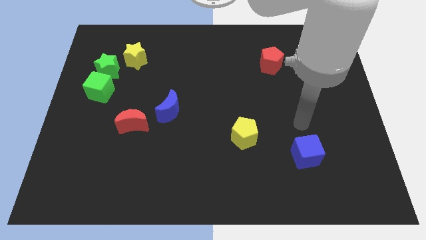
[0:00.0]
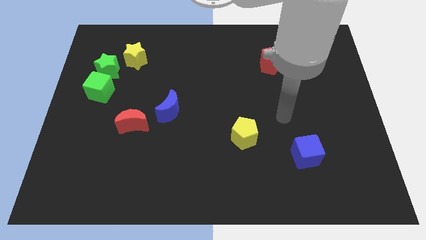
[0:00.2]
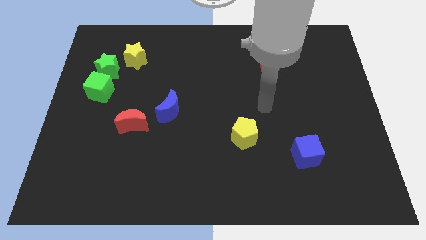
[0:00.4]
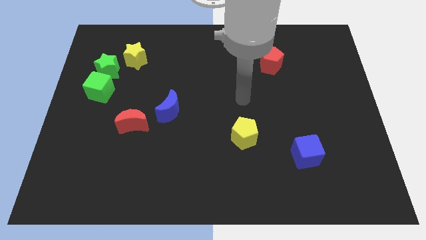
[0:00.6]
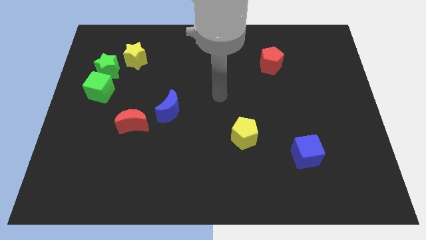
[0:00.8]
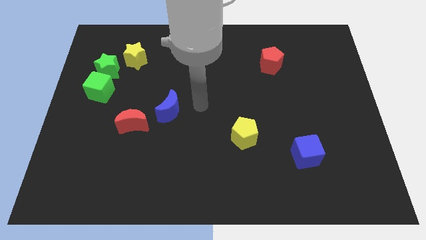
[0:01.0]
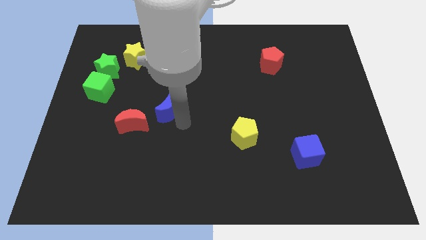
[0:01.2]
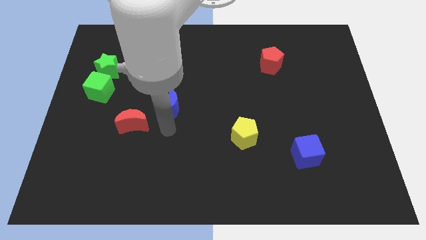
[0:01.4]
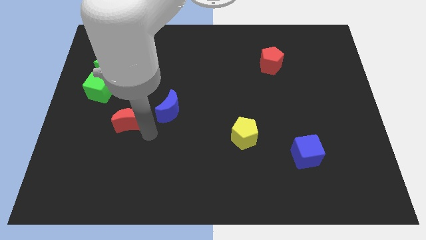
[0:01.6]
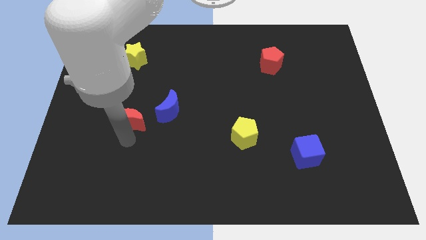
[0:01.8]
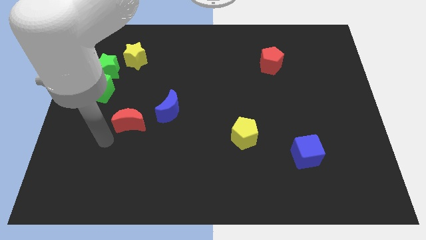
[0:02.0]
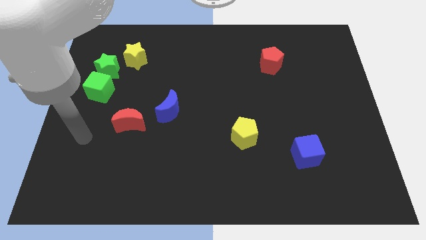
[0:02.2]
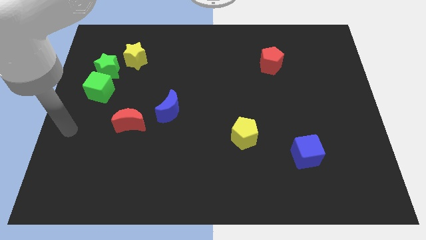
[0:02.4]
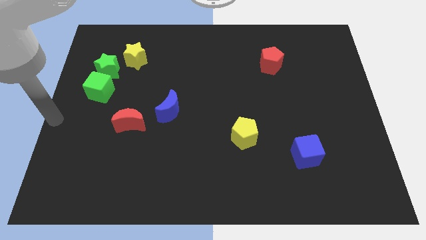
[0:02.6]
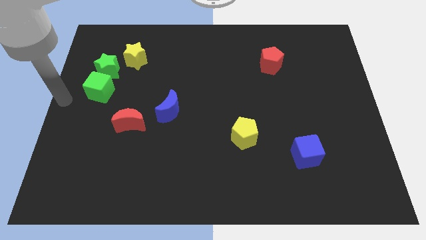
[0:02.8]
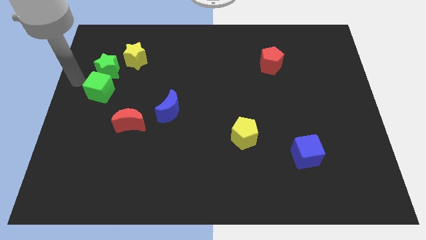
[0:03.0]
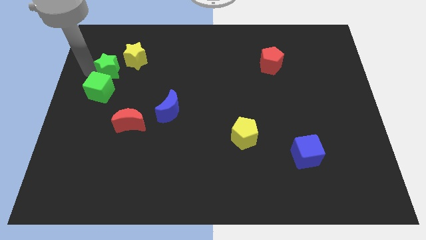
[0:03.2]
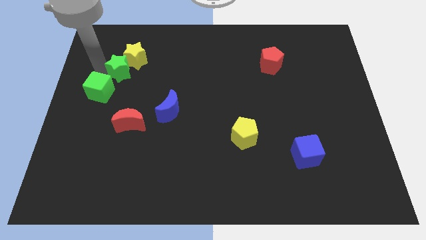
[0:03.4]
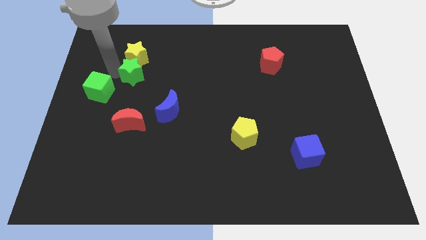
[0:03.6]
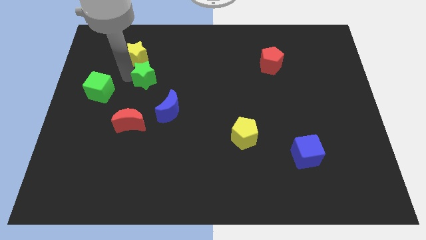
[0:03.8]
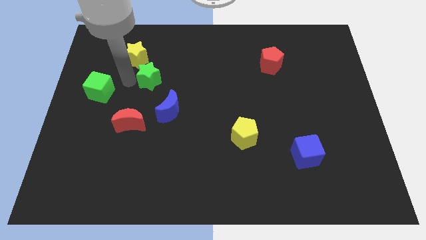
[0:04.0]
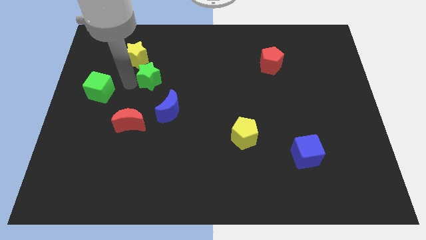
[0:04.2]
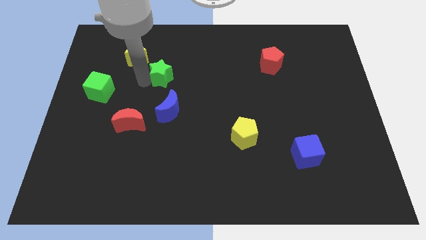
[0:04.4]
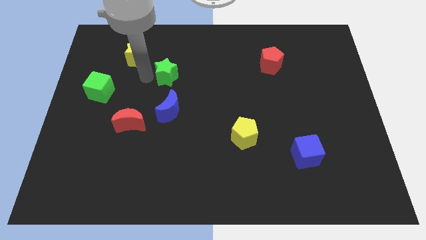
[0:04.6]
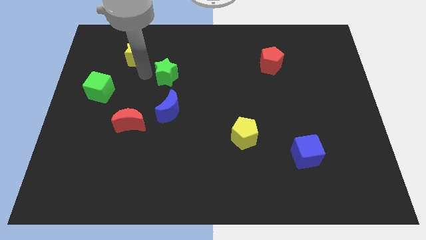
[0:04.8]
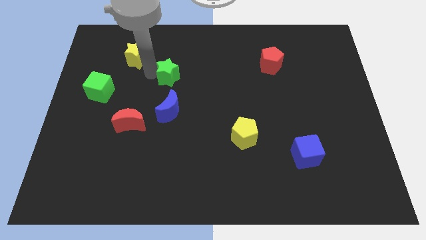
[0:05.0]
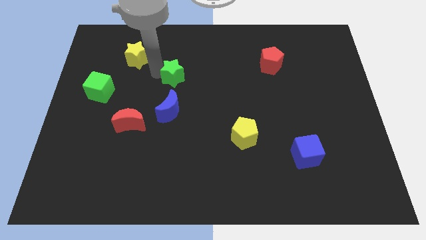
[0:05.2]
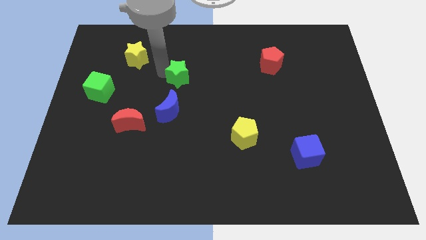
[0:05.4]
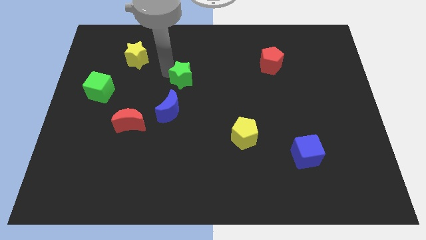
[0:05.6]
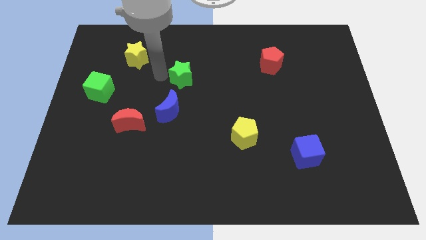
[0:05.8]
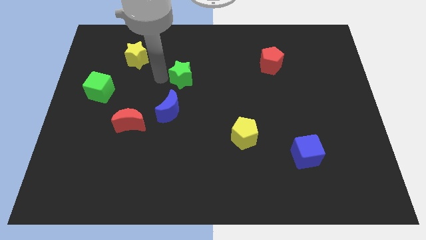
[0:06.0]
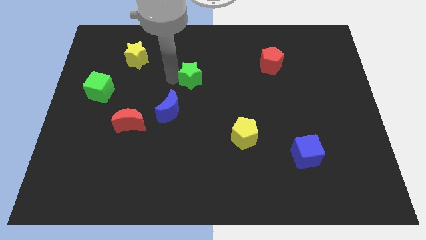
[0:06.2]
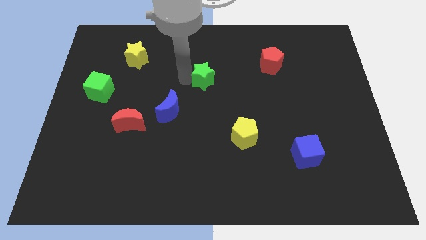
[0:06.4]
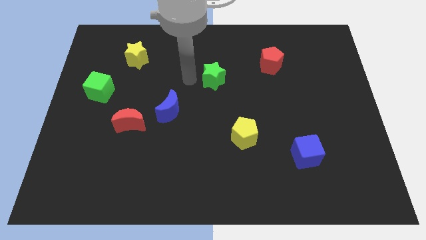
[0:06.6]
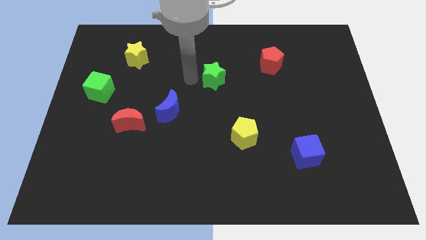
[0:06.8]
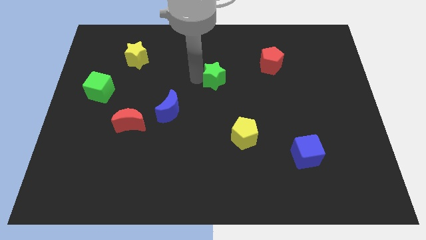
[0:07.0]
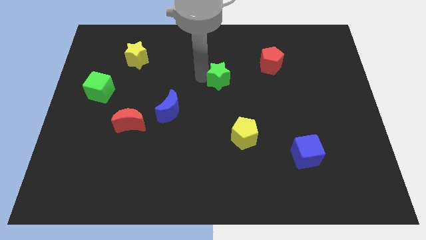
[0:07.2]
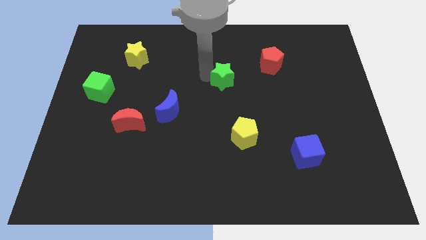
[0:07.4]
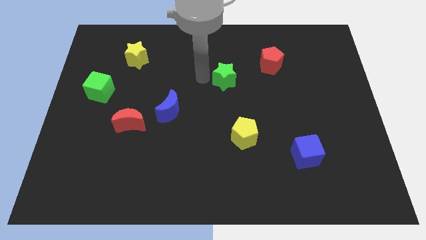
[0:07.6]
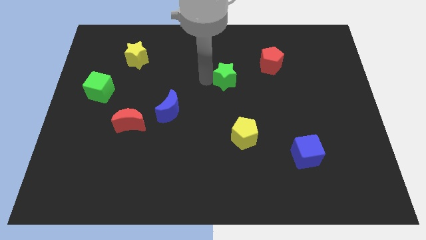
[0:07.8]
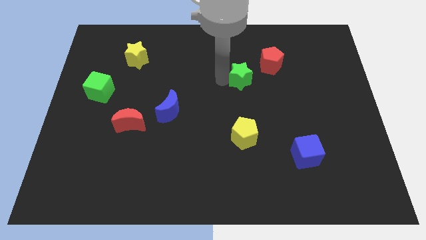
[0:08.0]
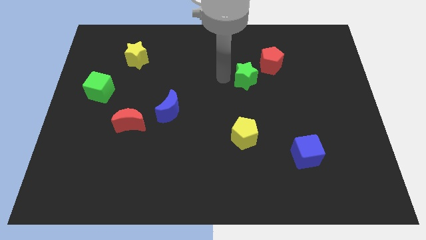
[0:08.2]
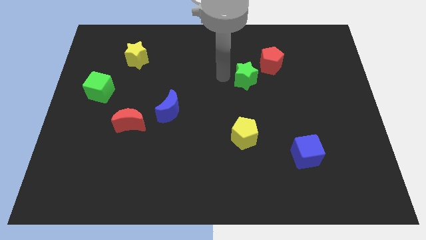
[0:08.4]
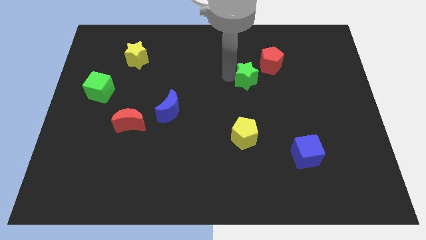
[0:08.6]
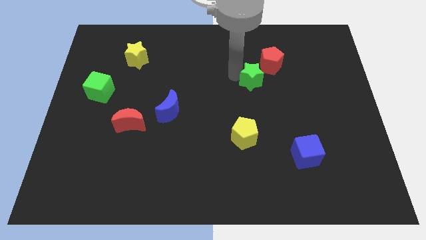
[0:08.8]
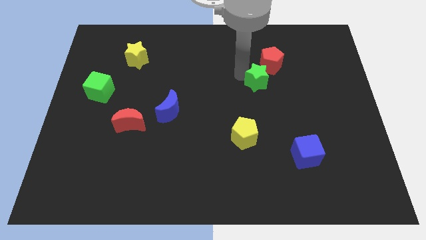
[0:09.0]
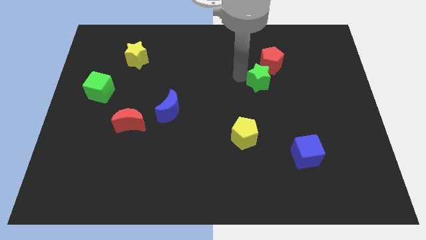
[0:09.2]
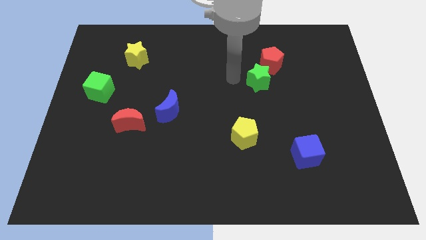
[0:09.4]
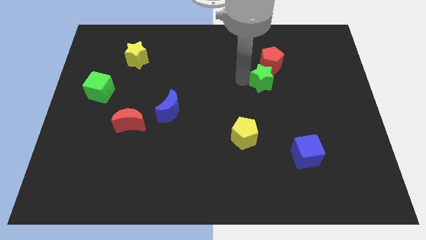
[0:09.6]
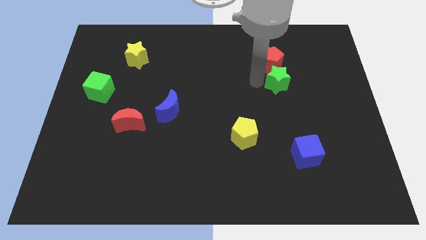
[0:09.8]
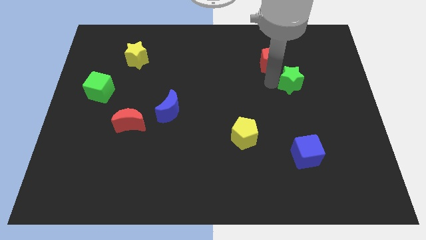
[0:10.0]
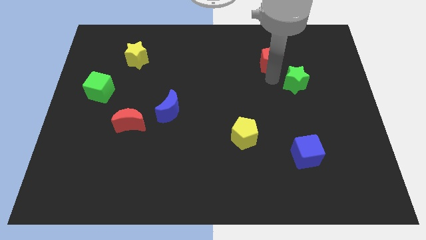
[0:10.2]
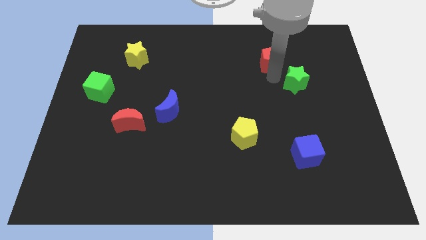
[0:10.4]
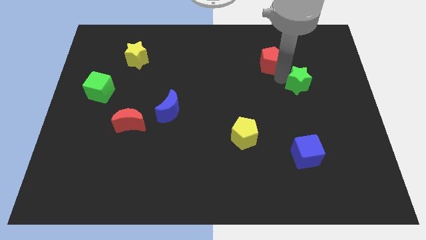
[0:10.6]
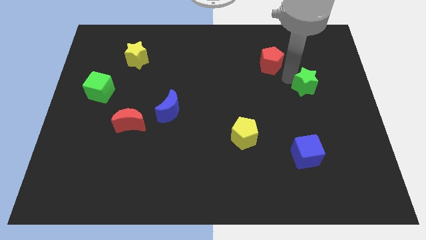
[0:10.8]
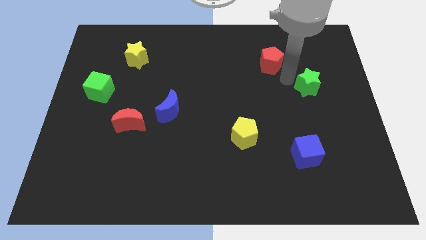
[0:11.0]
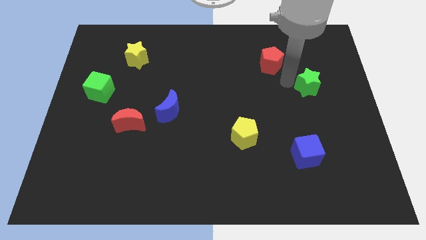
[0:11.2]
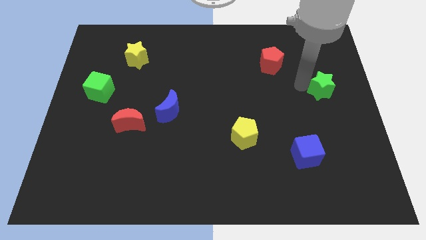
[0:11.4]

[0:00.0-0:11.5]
push the green star to the right side of the board

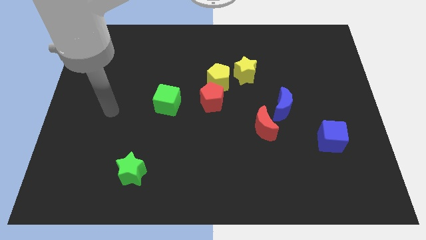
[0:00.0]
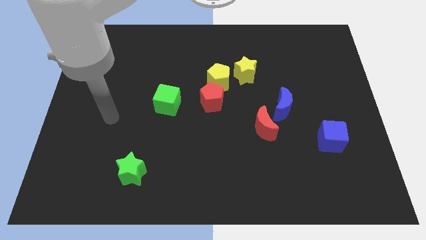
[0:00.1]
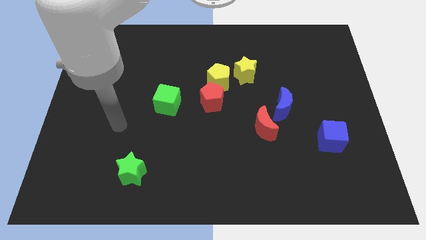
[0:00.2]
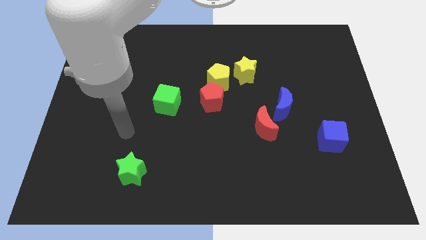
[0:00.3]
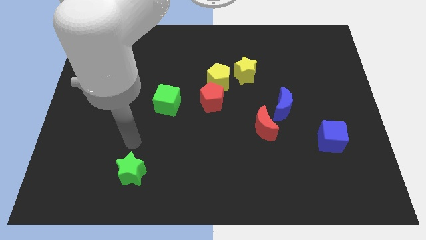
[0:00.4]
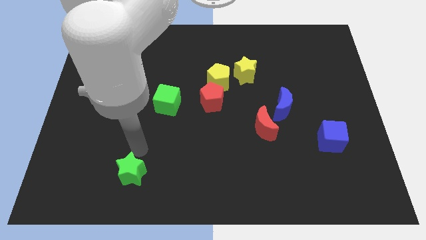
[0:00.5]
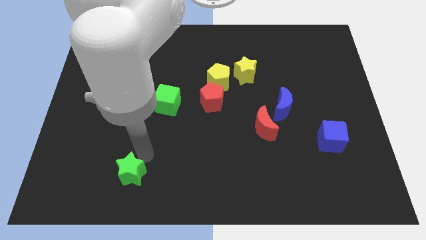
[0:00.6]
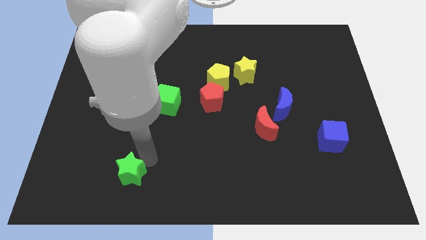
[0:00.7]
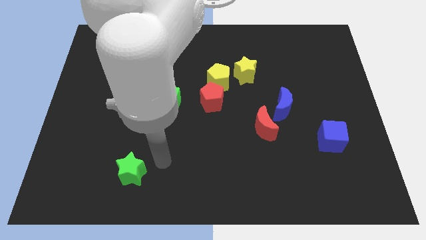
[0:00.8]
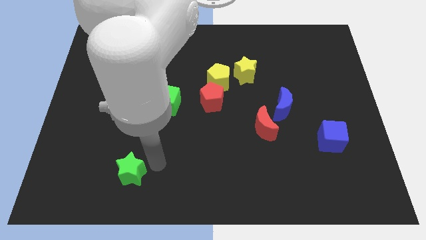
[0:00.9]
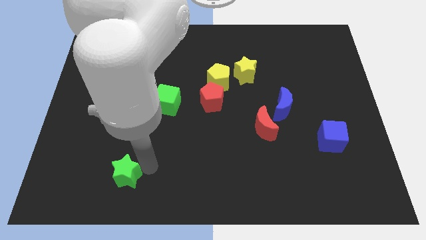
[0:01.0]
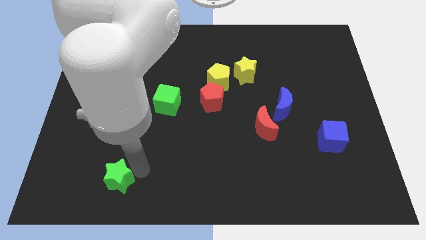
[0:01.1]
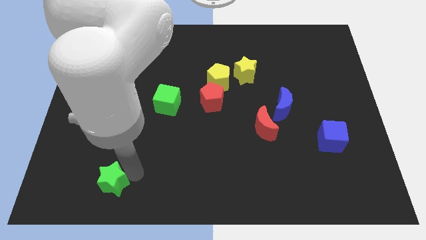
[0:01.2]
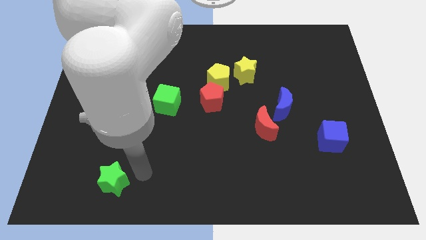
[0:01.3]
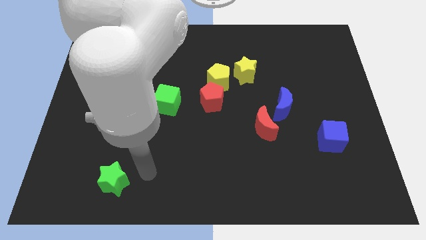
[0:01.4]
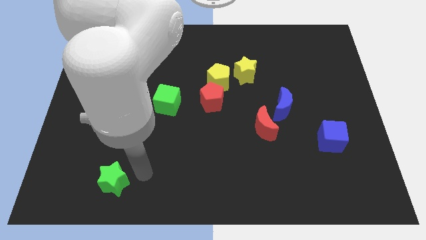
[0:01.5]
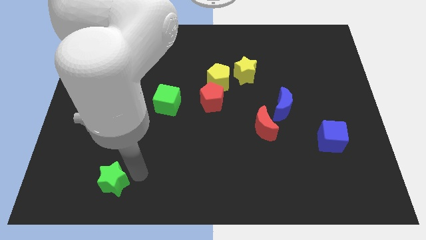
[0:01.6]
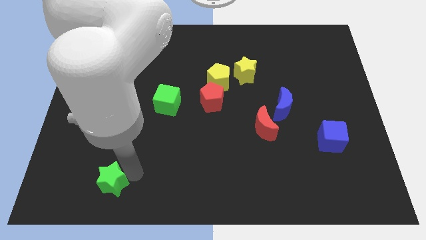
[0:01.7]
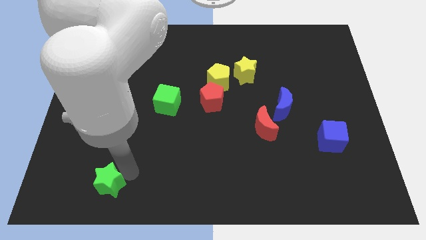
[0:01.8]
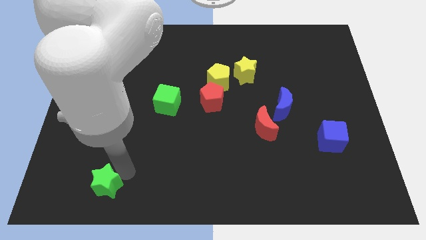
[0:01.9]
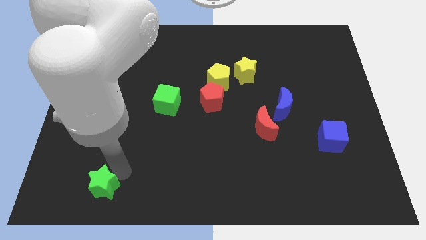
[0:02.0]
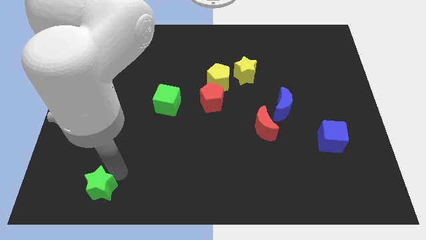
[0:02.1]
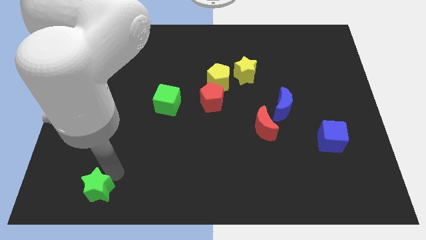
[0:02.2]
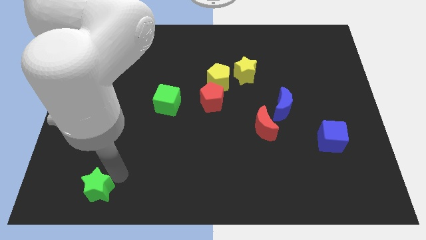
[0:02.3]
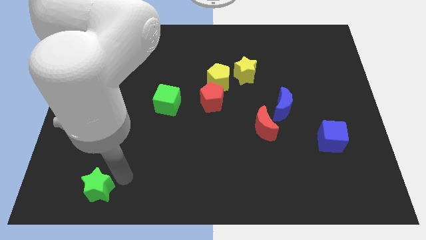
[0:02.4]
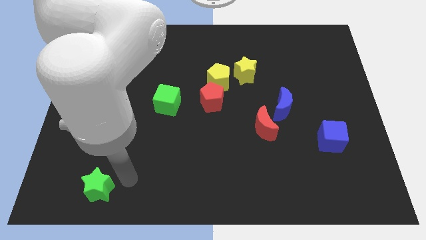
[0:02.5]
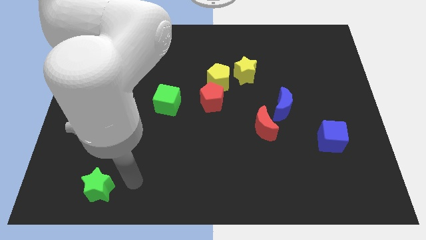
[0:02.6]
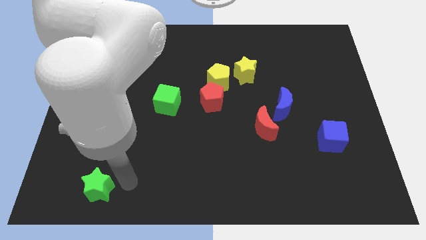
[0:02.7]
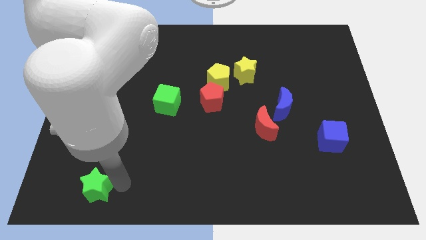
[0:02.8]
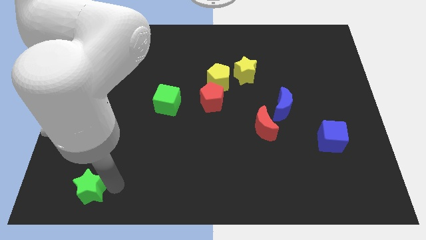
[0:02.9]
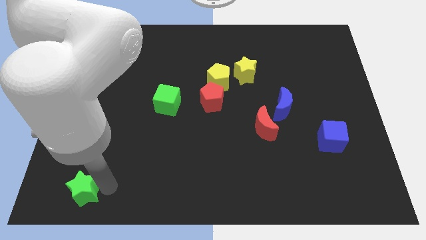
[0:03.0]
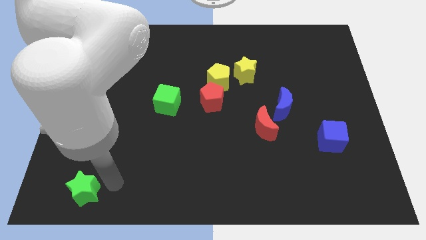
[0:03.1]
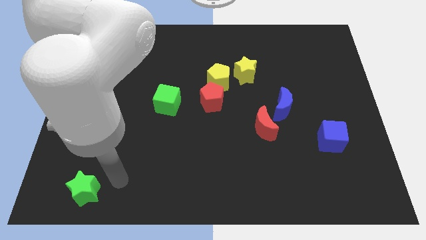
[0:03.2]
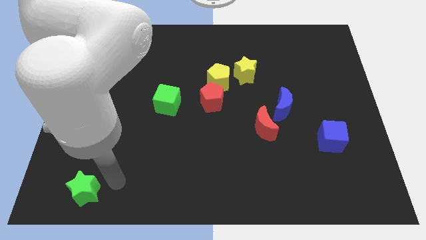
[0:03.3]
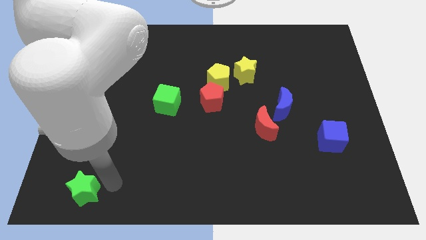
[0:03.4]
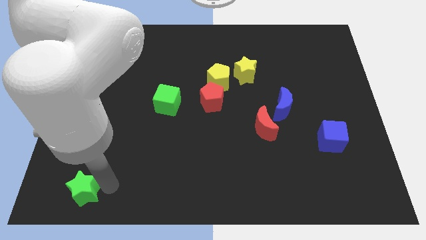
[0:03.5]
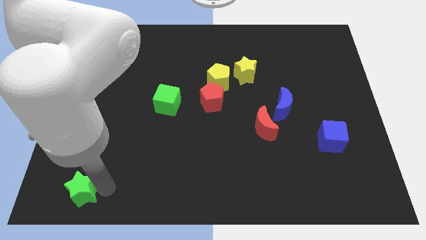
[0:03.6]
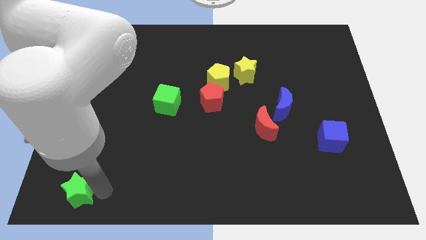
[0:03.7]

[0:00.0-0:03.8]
slide the green star to the bottom left corner
